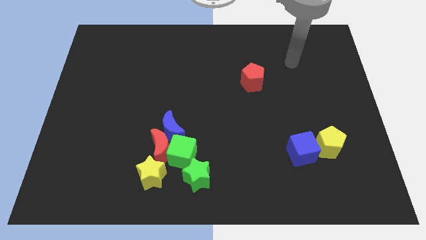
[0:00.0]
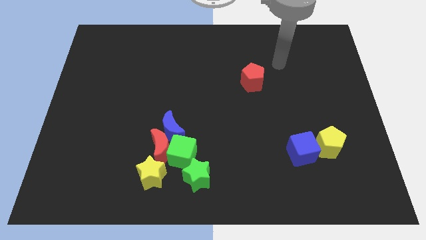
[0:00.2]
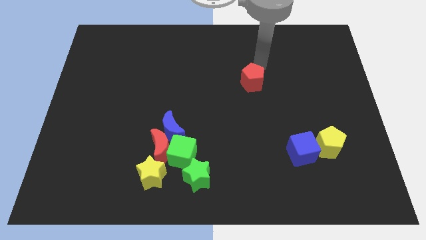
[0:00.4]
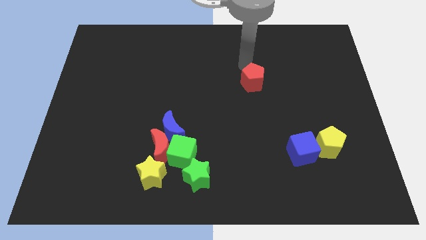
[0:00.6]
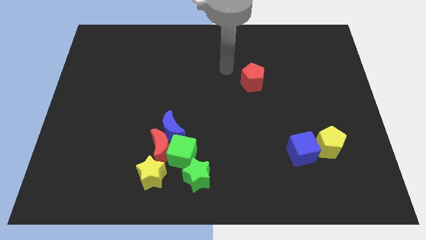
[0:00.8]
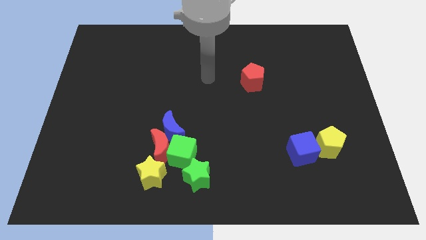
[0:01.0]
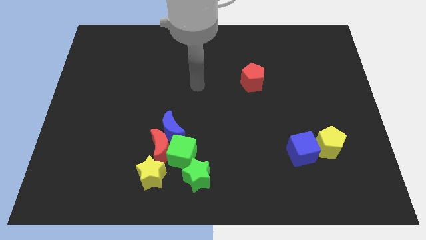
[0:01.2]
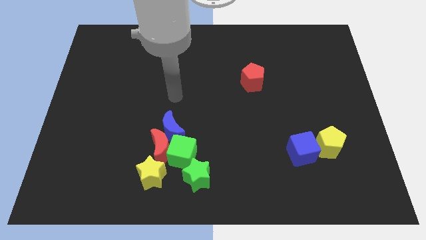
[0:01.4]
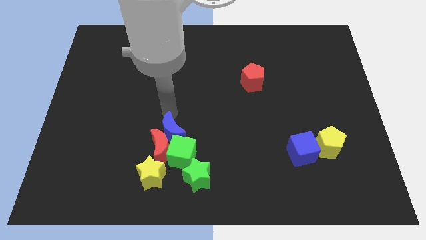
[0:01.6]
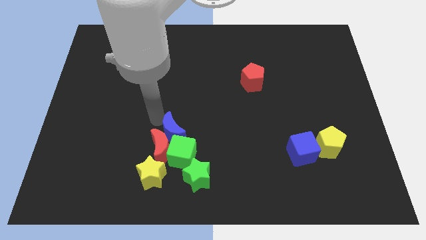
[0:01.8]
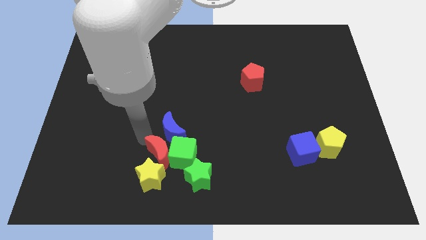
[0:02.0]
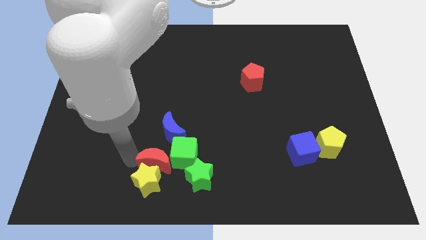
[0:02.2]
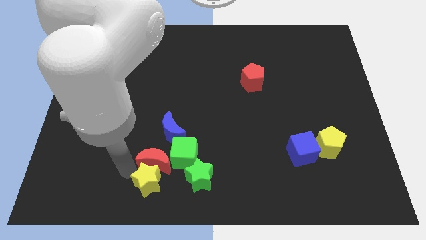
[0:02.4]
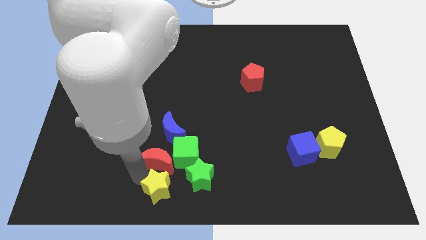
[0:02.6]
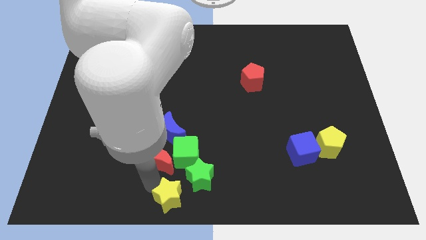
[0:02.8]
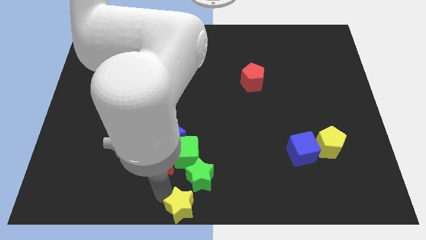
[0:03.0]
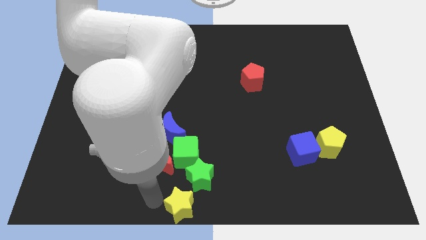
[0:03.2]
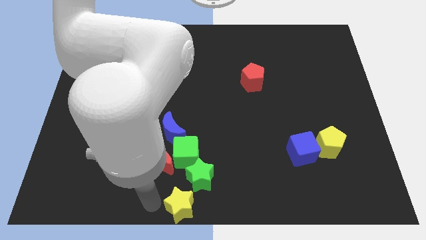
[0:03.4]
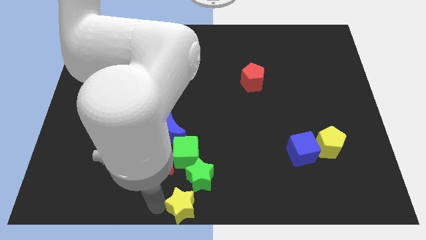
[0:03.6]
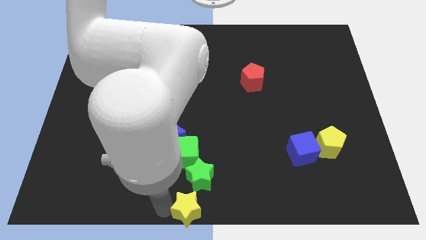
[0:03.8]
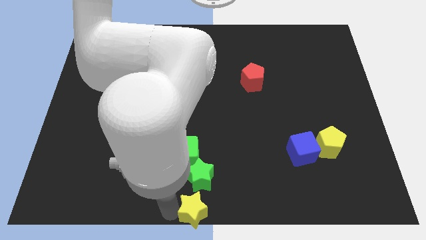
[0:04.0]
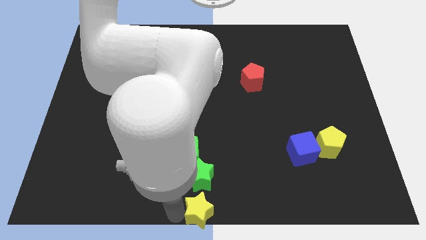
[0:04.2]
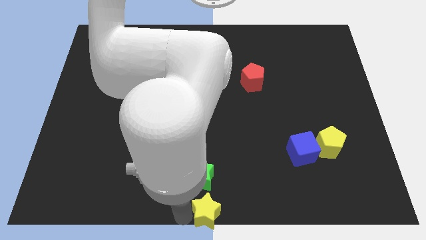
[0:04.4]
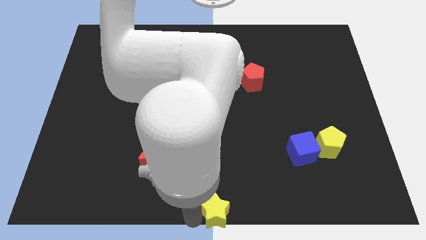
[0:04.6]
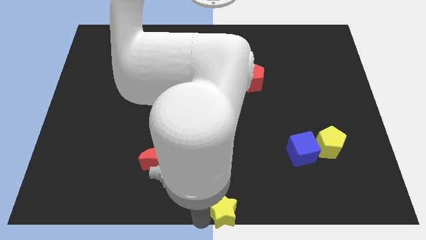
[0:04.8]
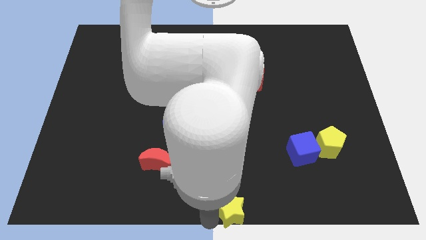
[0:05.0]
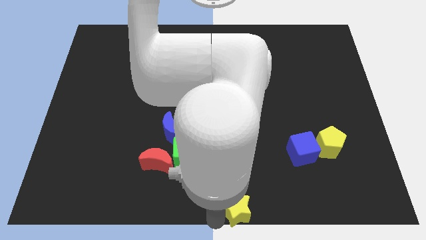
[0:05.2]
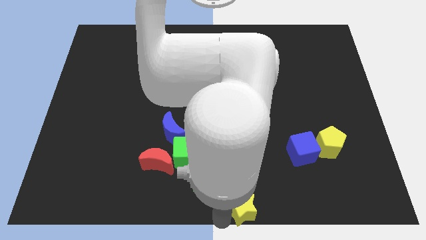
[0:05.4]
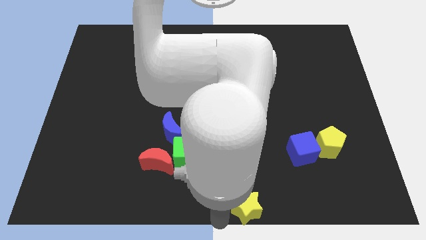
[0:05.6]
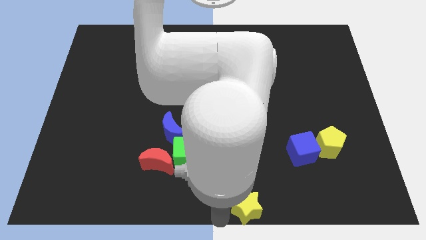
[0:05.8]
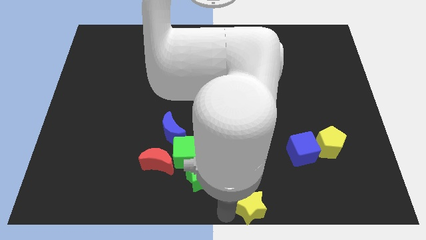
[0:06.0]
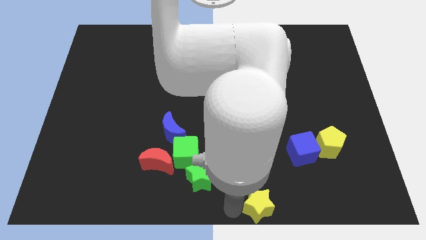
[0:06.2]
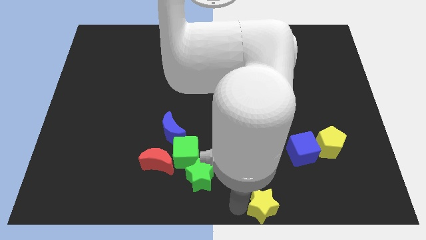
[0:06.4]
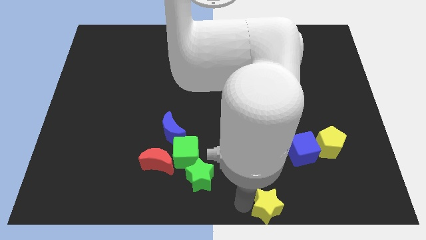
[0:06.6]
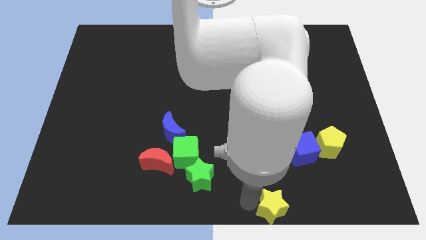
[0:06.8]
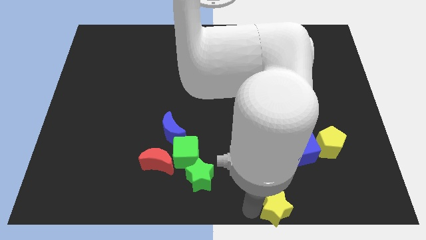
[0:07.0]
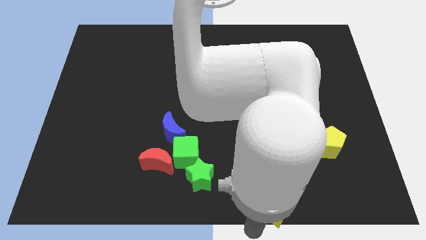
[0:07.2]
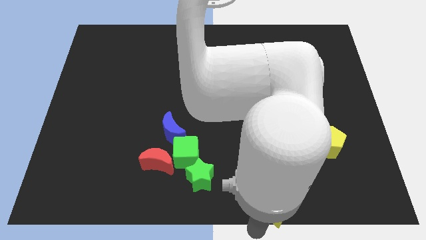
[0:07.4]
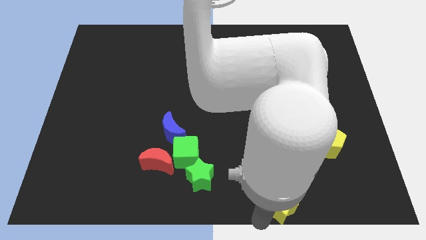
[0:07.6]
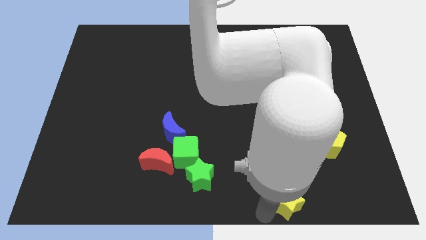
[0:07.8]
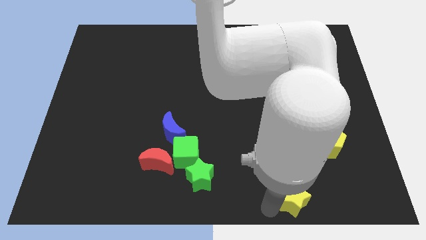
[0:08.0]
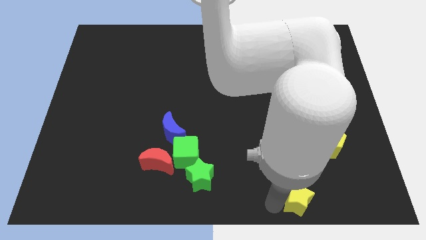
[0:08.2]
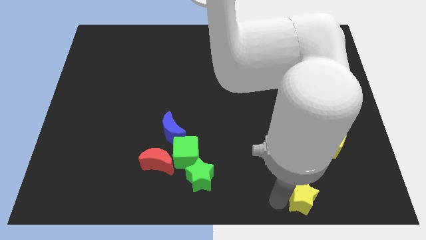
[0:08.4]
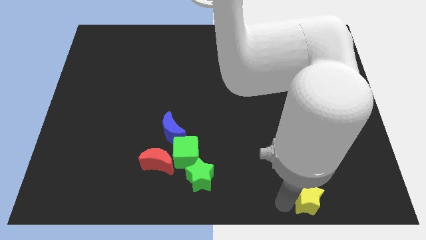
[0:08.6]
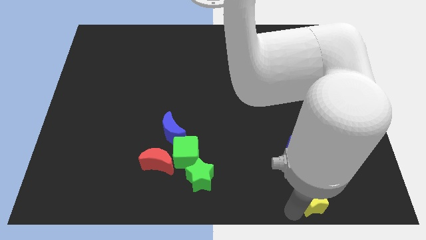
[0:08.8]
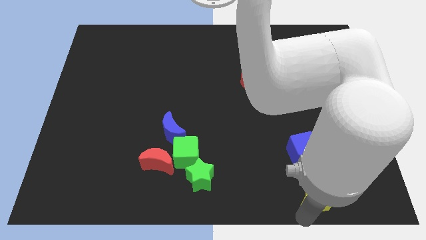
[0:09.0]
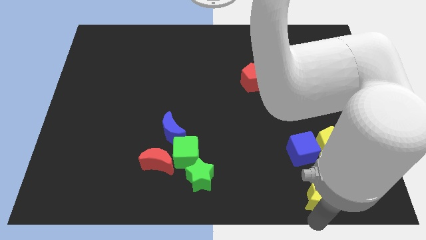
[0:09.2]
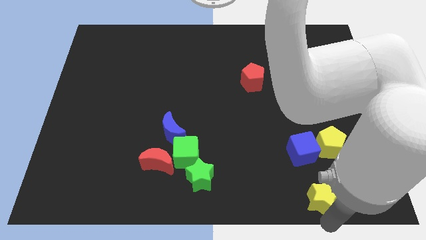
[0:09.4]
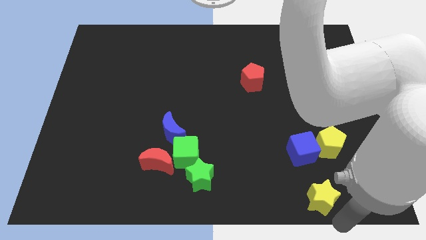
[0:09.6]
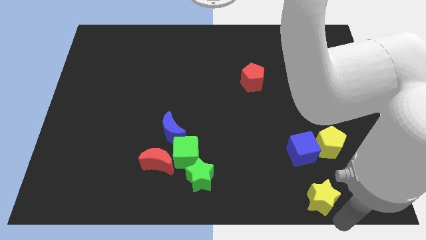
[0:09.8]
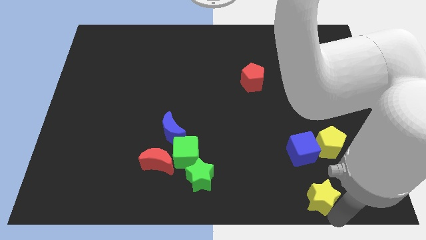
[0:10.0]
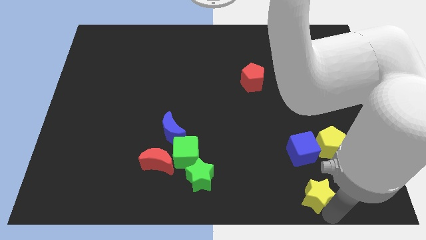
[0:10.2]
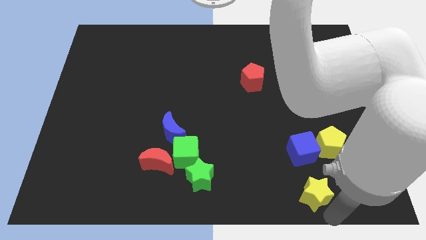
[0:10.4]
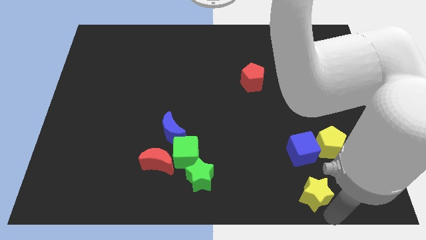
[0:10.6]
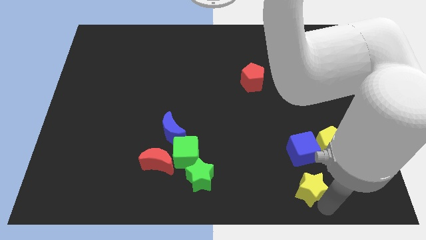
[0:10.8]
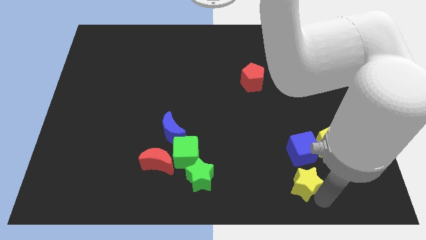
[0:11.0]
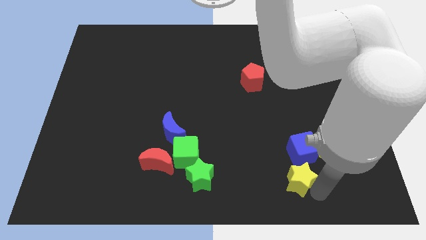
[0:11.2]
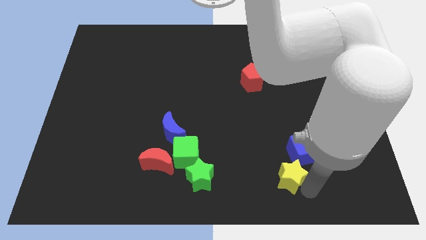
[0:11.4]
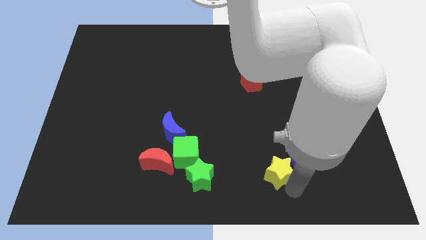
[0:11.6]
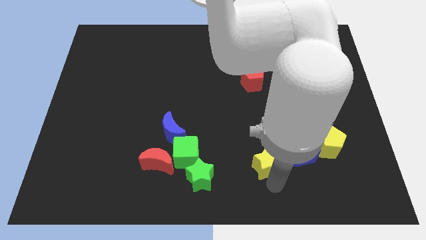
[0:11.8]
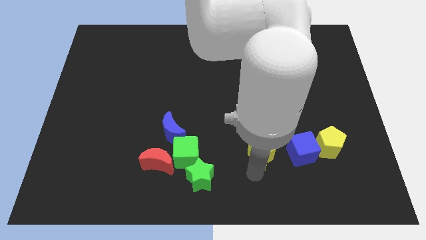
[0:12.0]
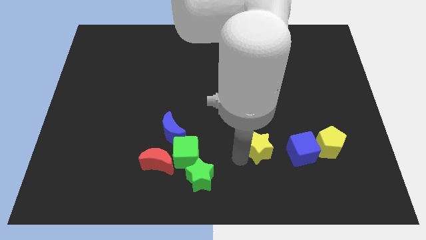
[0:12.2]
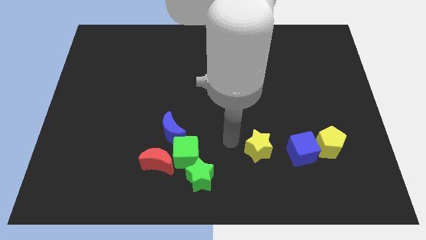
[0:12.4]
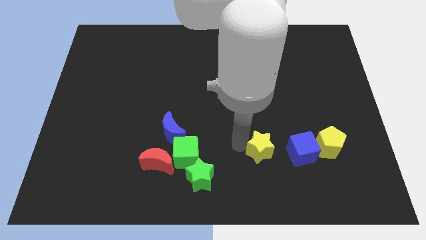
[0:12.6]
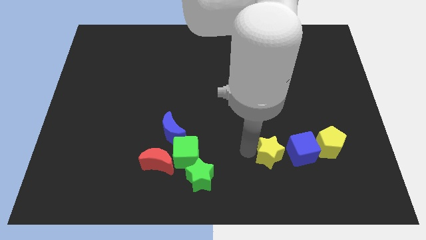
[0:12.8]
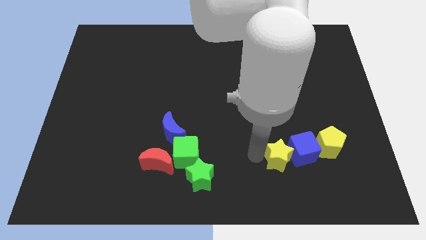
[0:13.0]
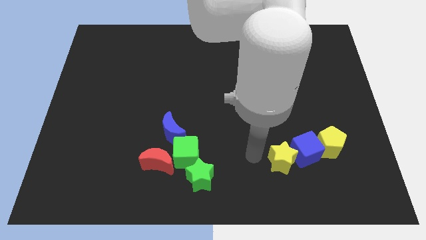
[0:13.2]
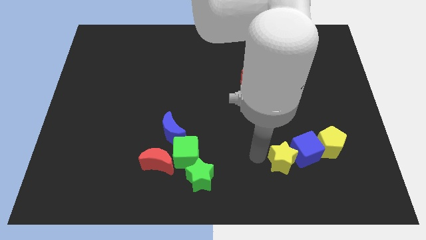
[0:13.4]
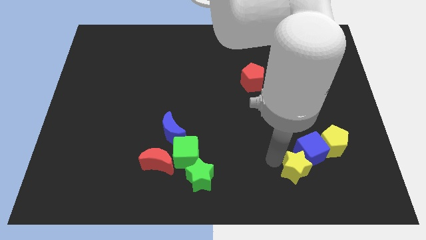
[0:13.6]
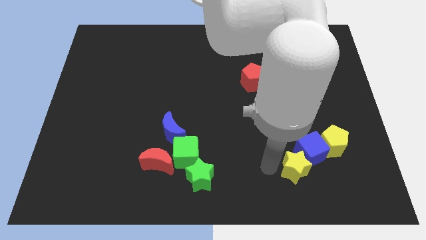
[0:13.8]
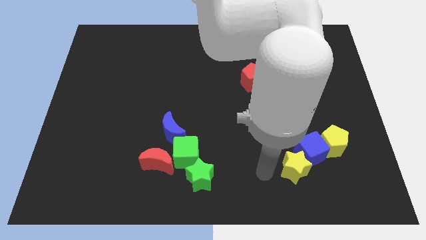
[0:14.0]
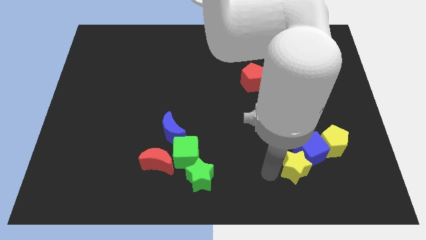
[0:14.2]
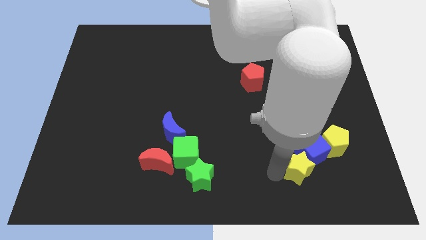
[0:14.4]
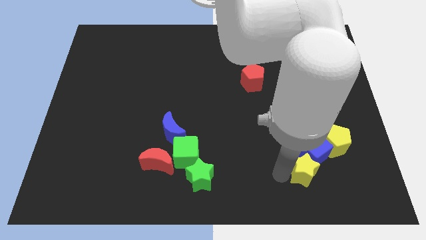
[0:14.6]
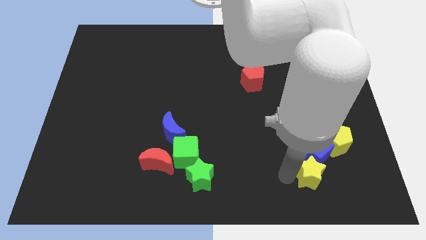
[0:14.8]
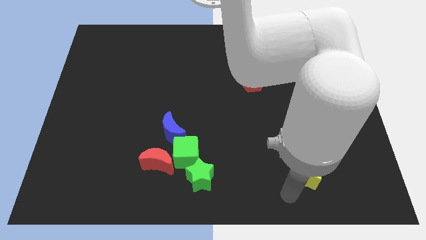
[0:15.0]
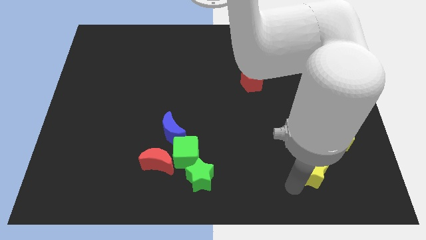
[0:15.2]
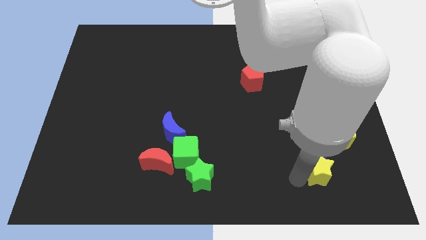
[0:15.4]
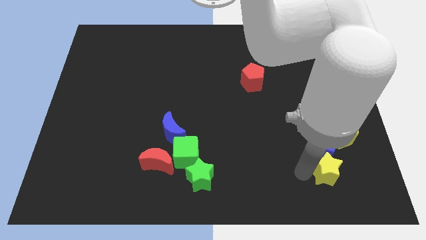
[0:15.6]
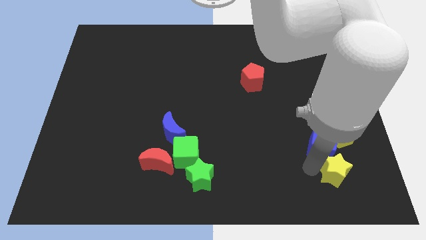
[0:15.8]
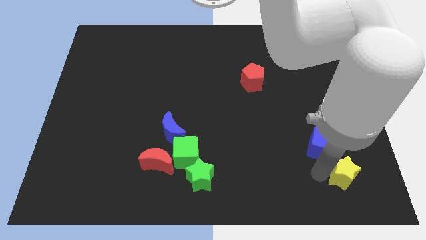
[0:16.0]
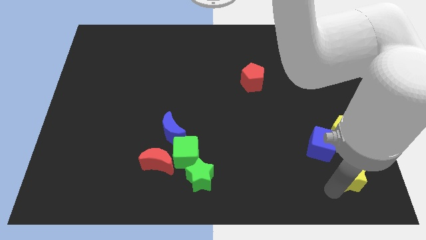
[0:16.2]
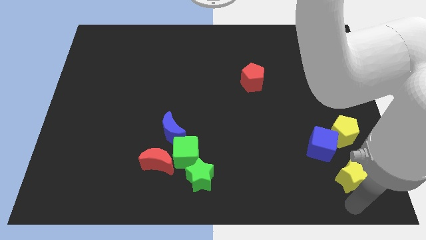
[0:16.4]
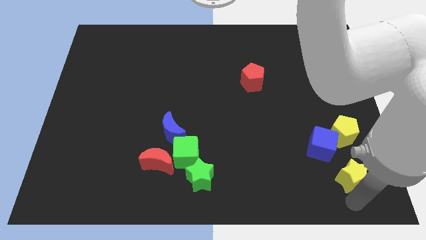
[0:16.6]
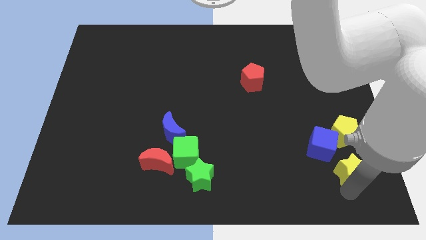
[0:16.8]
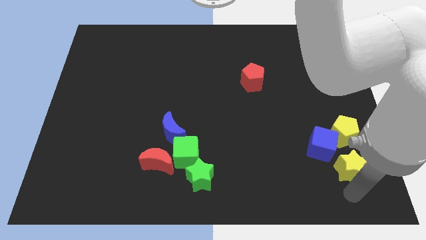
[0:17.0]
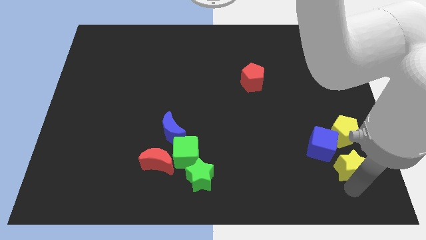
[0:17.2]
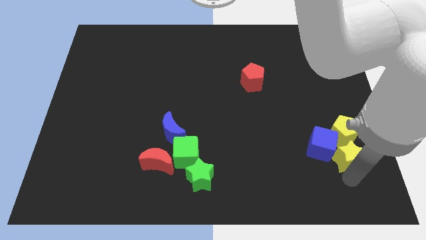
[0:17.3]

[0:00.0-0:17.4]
put the yellow star close to the yellow pentagon
